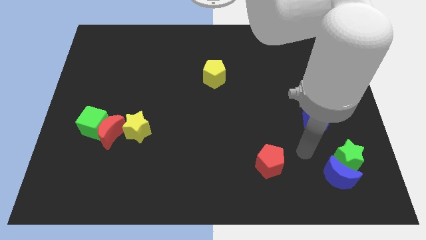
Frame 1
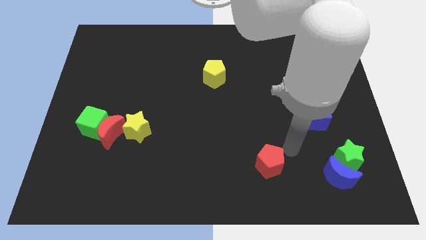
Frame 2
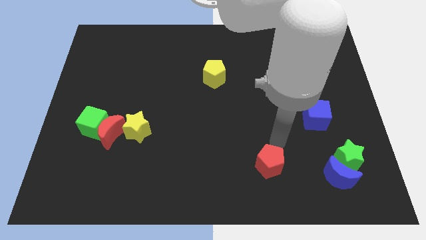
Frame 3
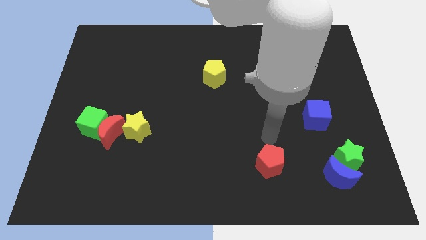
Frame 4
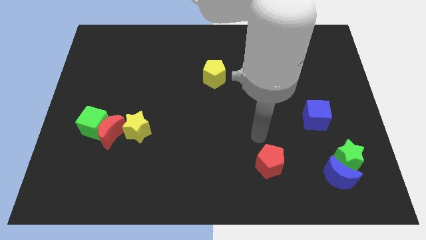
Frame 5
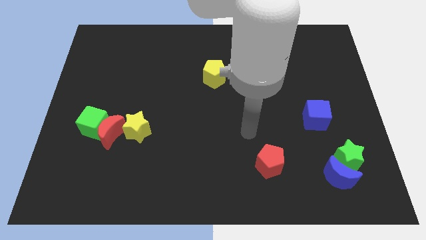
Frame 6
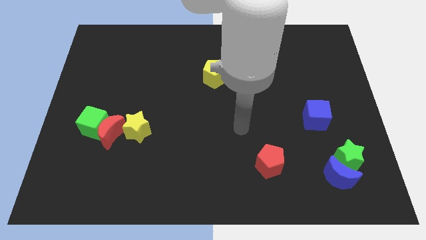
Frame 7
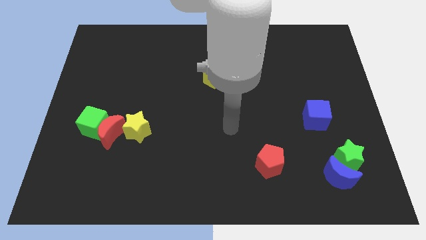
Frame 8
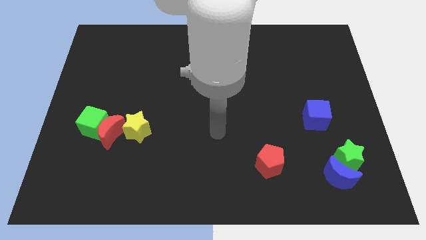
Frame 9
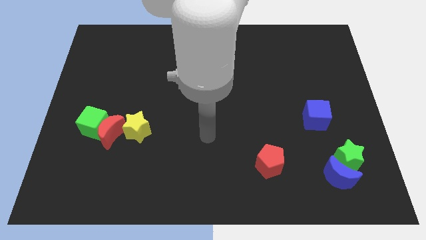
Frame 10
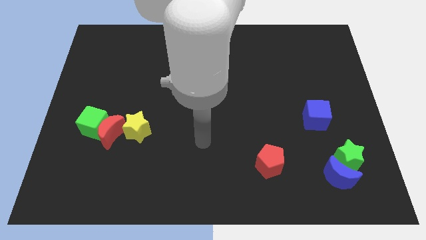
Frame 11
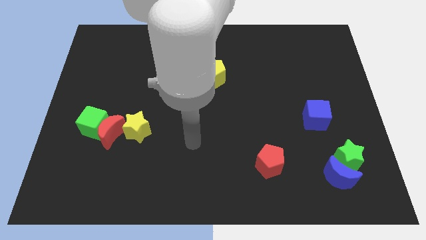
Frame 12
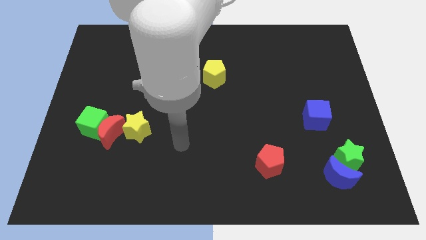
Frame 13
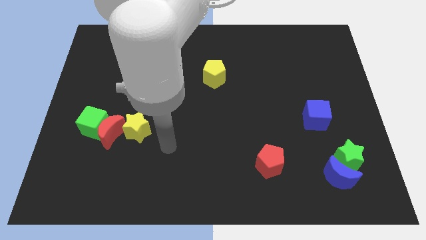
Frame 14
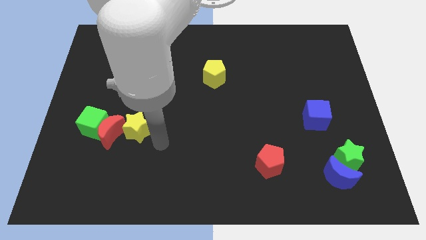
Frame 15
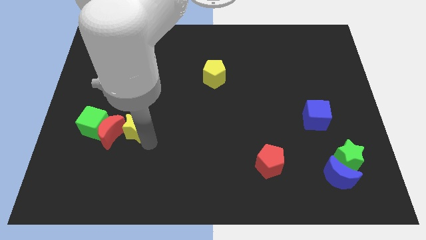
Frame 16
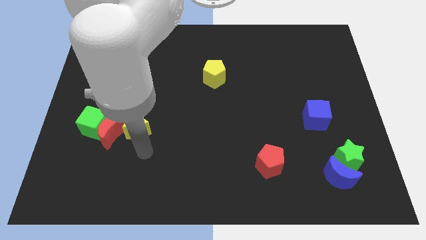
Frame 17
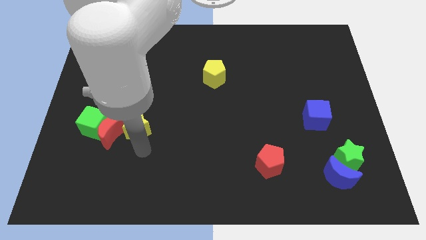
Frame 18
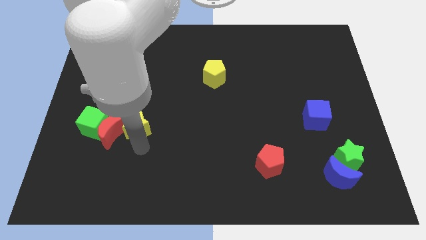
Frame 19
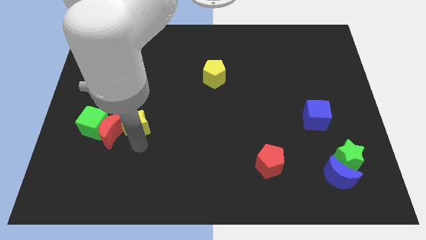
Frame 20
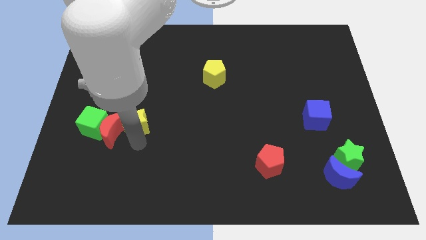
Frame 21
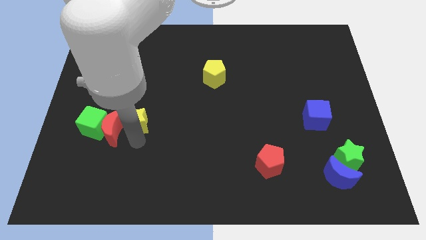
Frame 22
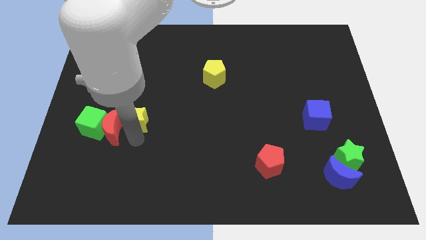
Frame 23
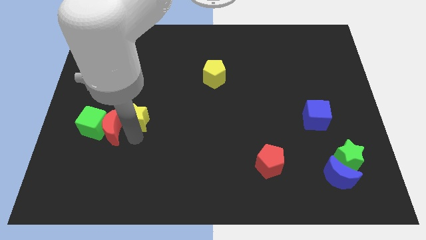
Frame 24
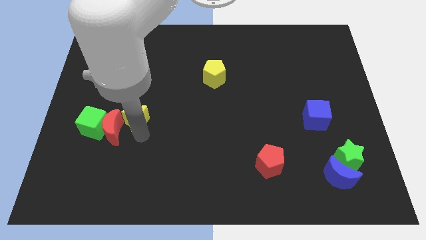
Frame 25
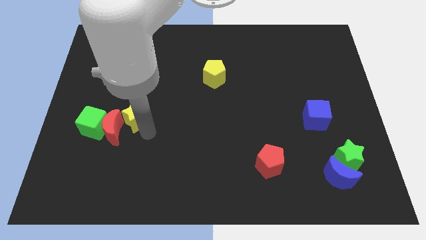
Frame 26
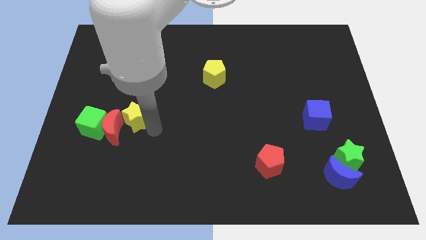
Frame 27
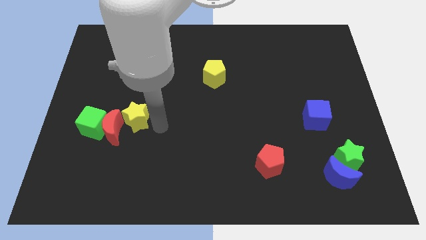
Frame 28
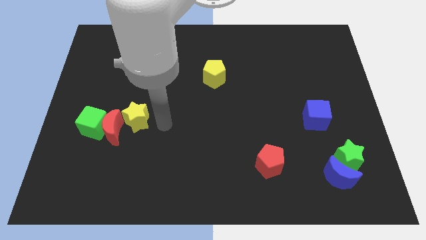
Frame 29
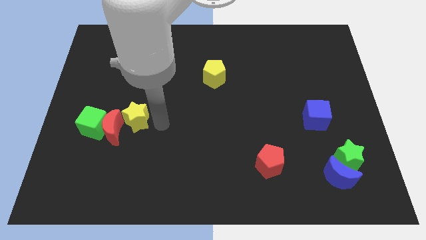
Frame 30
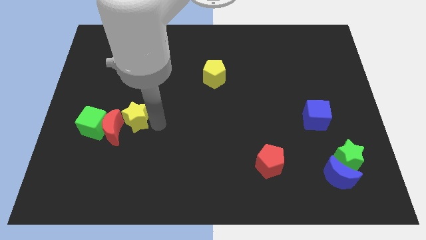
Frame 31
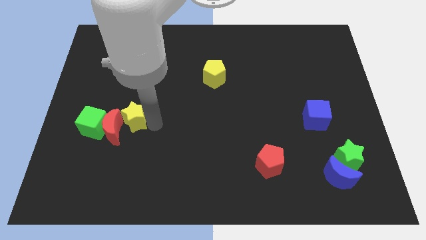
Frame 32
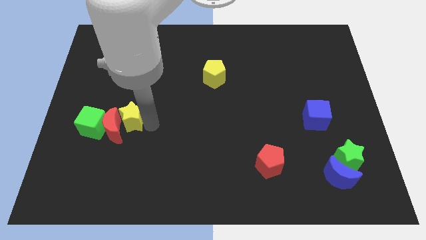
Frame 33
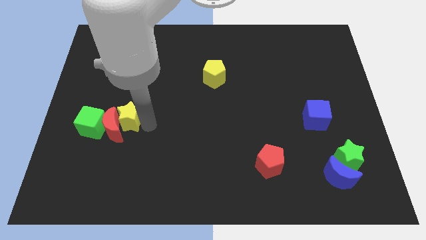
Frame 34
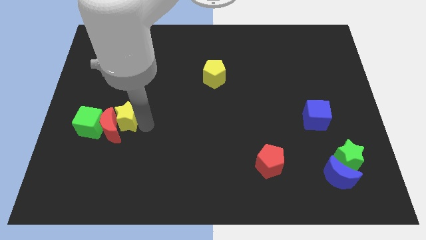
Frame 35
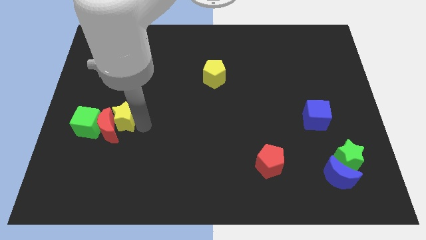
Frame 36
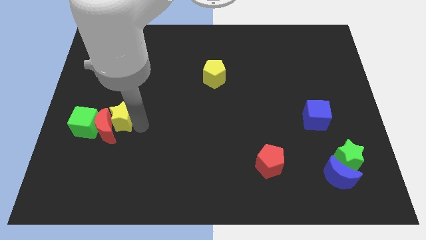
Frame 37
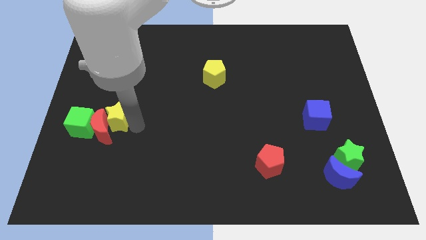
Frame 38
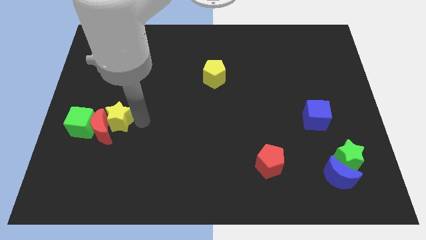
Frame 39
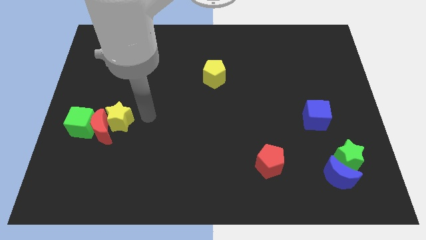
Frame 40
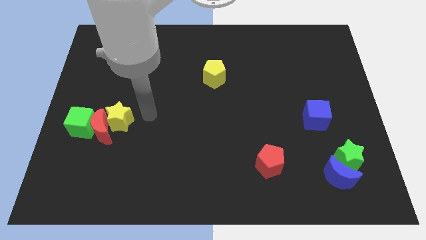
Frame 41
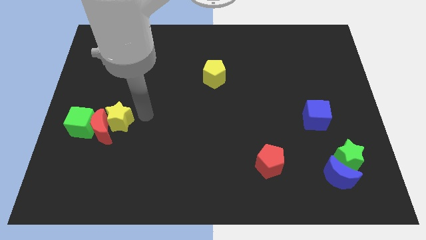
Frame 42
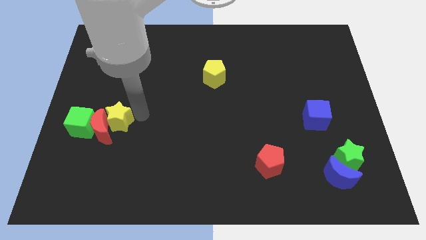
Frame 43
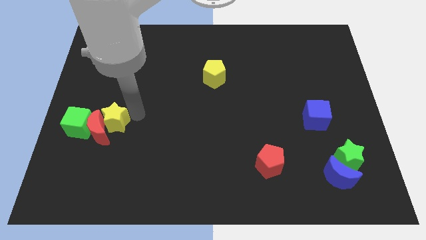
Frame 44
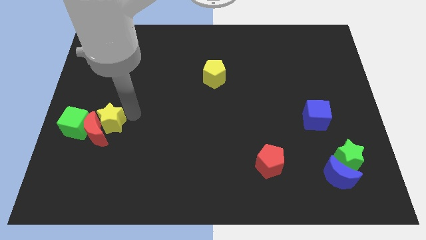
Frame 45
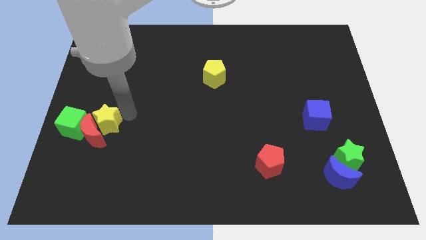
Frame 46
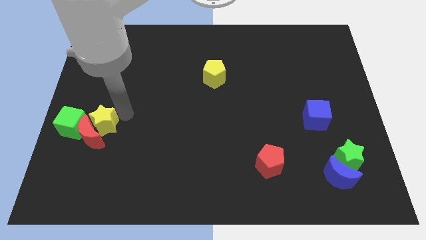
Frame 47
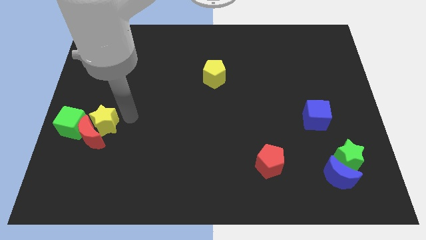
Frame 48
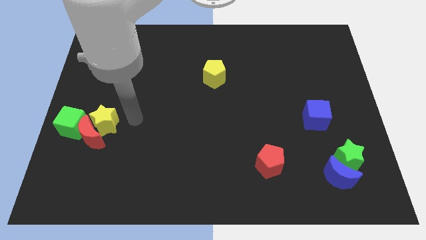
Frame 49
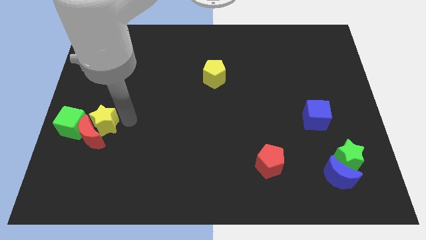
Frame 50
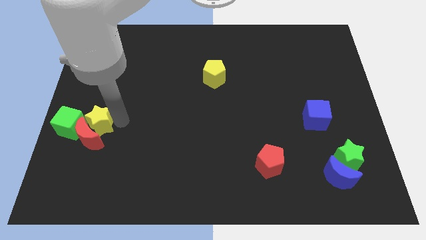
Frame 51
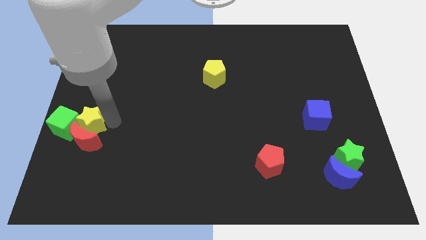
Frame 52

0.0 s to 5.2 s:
push the yellow star to the green cube
